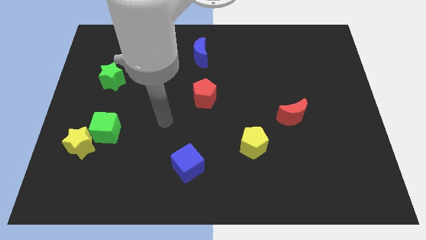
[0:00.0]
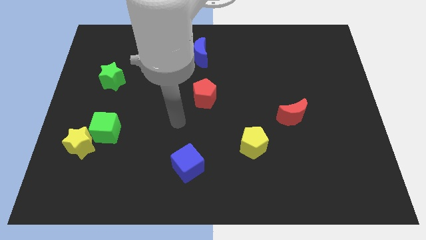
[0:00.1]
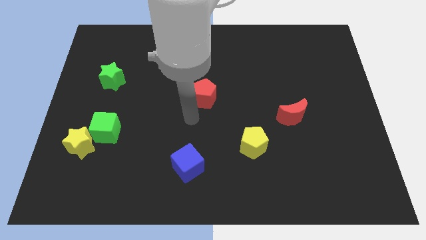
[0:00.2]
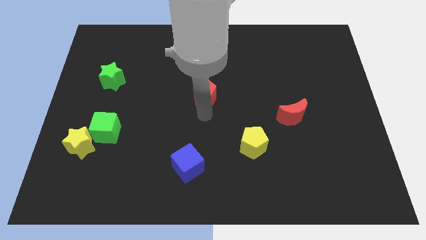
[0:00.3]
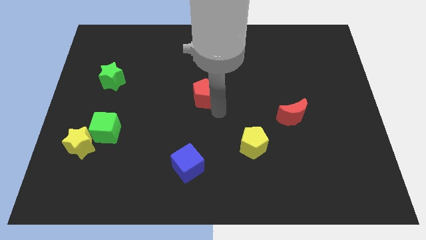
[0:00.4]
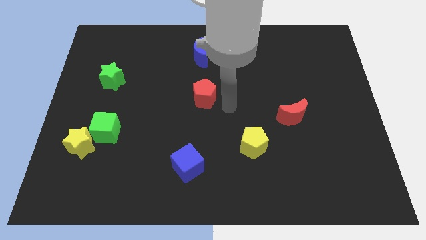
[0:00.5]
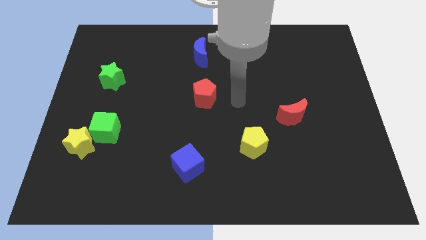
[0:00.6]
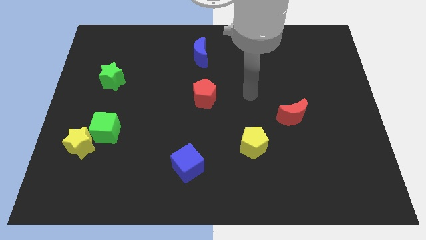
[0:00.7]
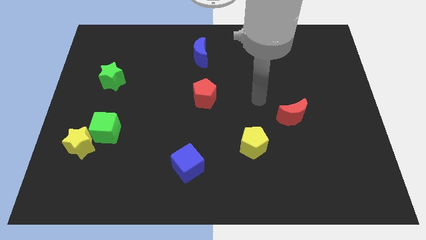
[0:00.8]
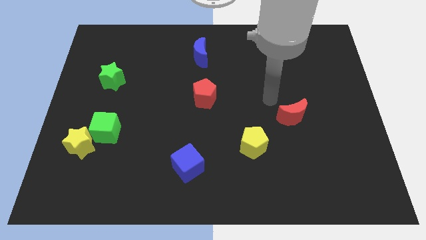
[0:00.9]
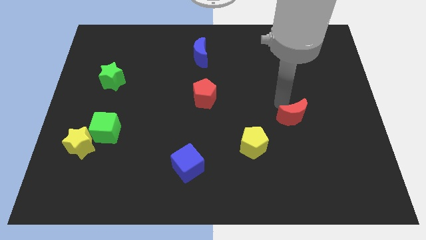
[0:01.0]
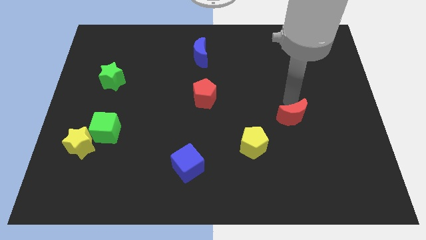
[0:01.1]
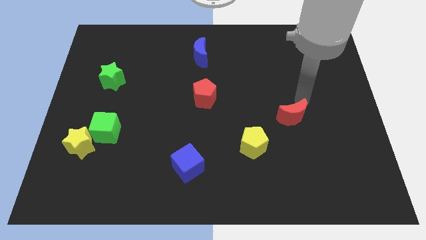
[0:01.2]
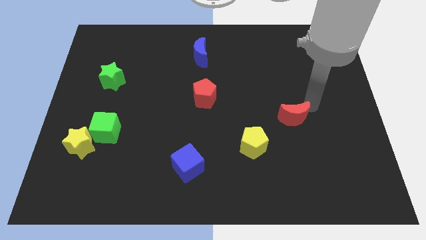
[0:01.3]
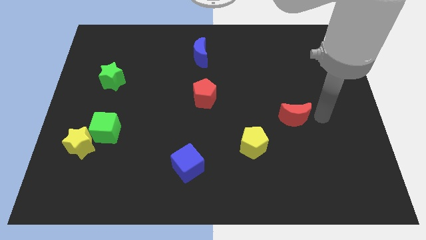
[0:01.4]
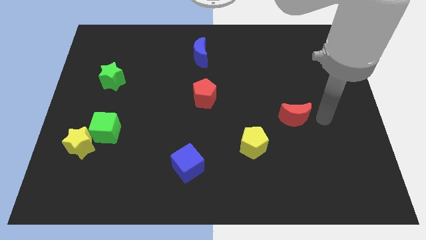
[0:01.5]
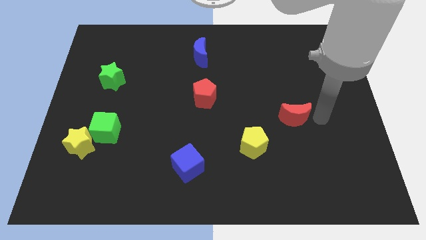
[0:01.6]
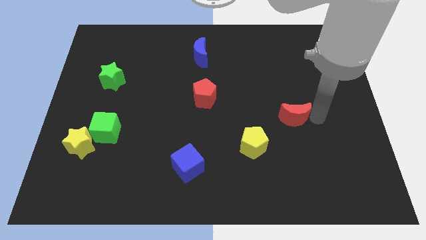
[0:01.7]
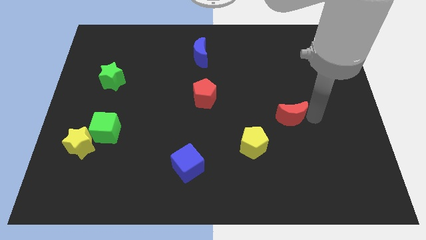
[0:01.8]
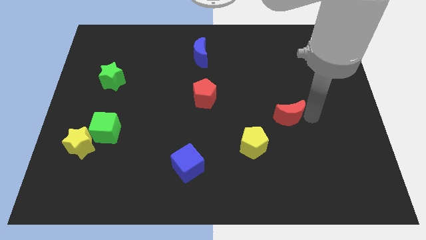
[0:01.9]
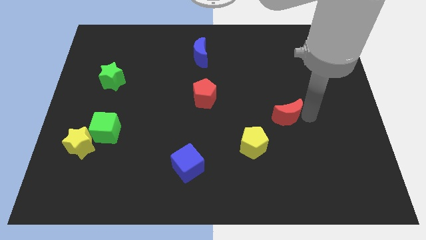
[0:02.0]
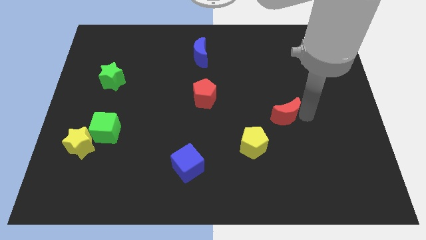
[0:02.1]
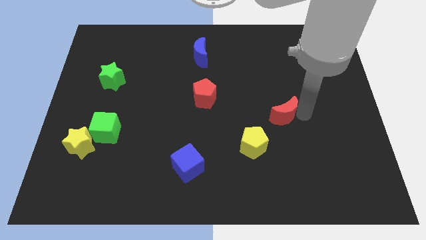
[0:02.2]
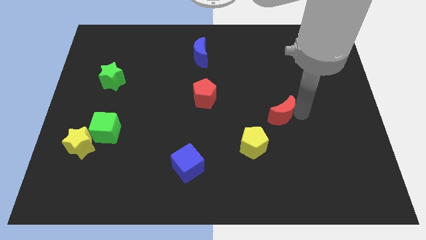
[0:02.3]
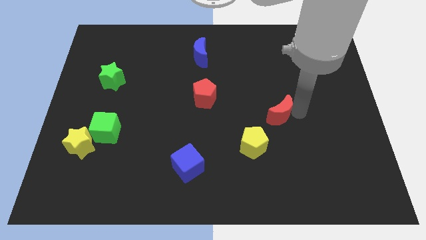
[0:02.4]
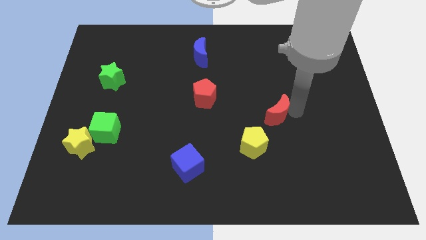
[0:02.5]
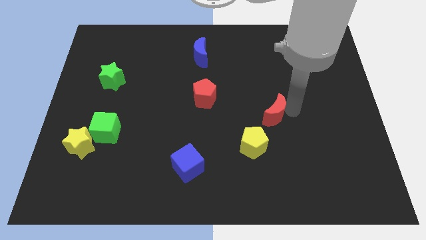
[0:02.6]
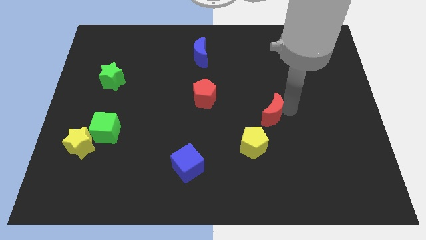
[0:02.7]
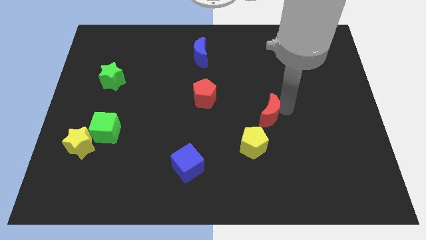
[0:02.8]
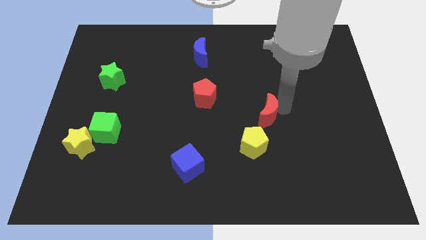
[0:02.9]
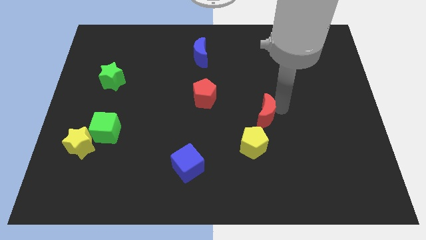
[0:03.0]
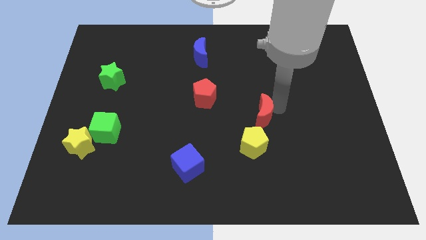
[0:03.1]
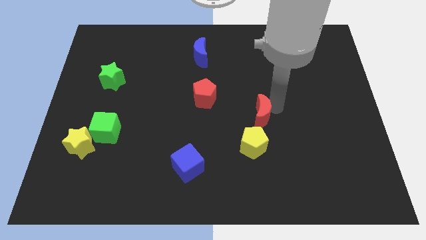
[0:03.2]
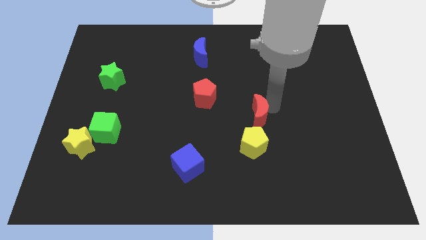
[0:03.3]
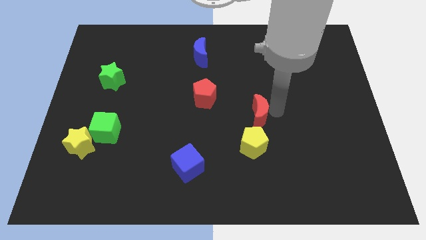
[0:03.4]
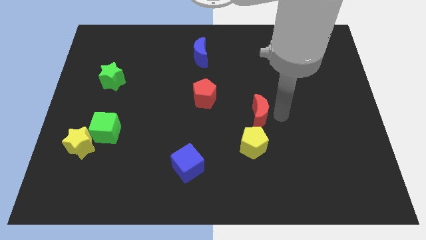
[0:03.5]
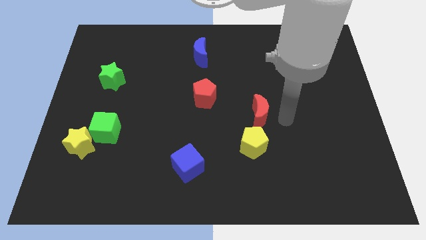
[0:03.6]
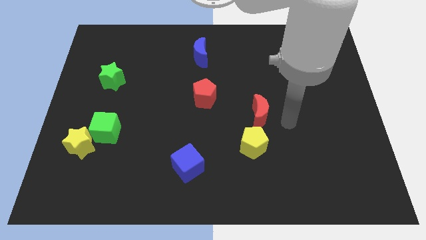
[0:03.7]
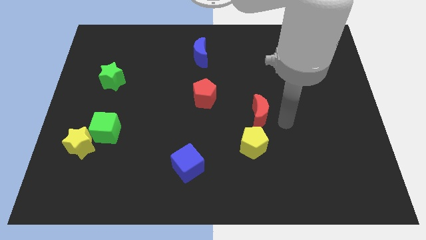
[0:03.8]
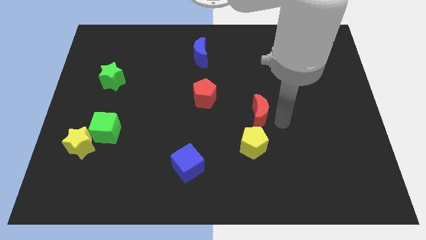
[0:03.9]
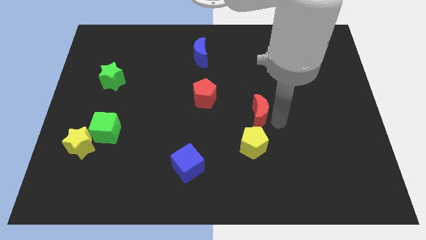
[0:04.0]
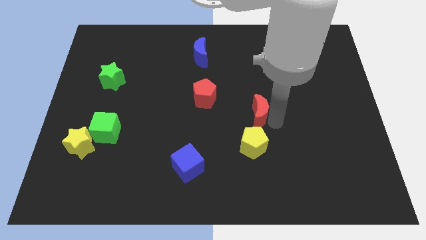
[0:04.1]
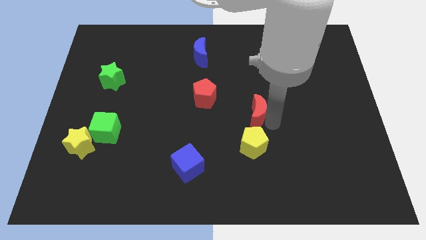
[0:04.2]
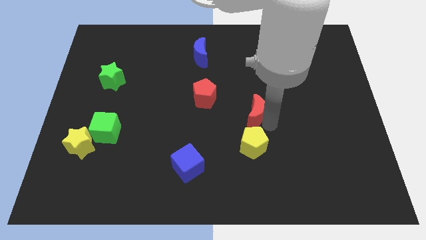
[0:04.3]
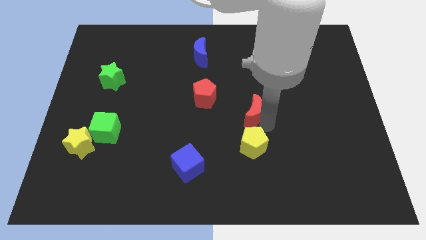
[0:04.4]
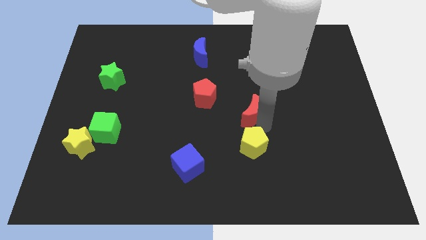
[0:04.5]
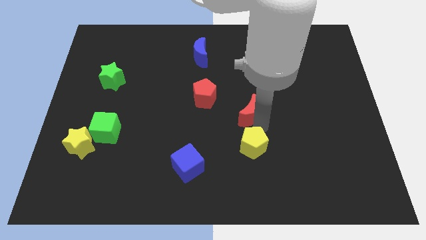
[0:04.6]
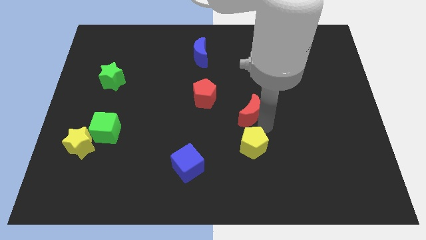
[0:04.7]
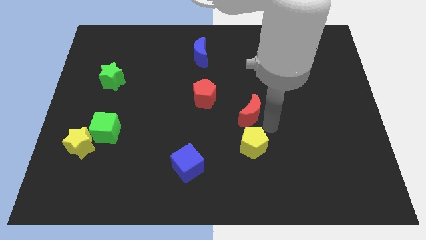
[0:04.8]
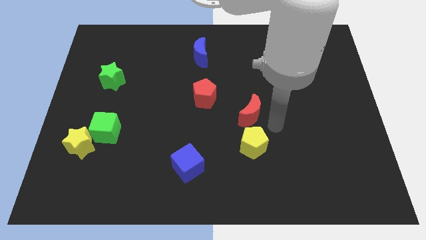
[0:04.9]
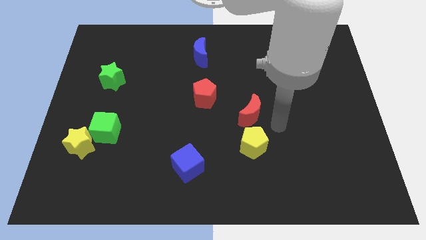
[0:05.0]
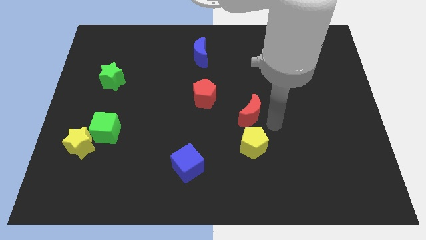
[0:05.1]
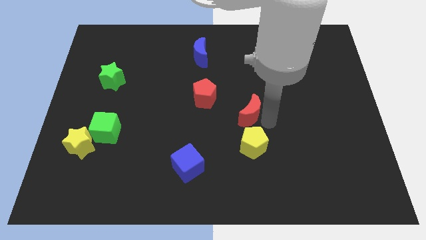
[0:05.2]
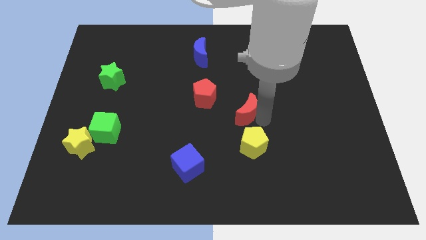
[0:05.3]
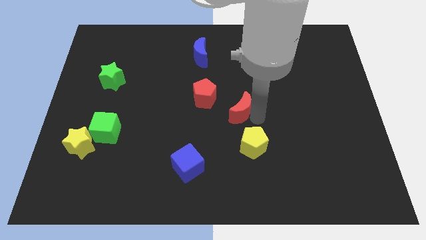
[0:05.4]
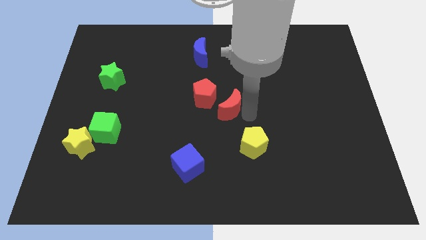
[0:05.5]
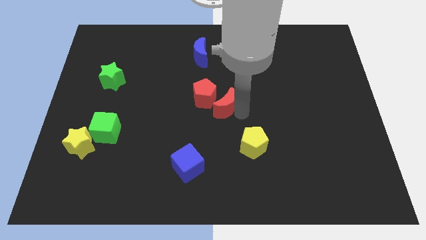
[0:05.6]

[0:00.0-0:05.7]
push the red moon towards the red pentagon

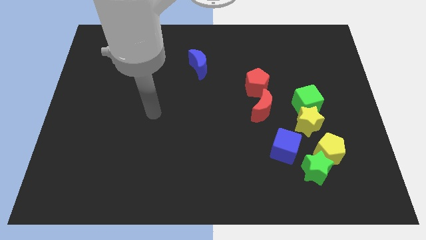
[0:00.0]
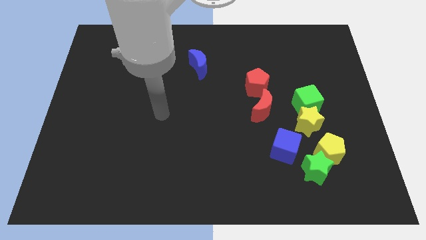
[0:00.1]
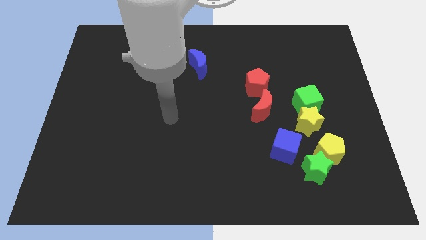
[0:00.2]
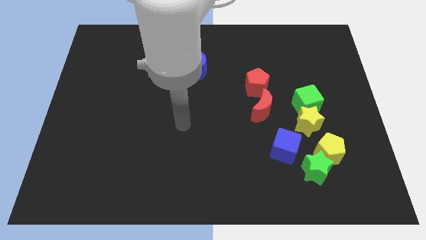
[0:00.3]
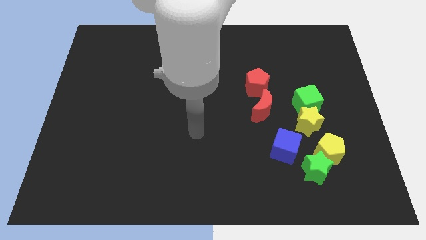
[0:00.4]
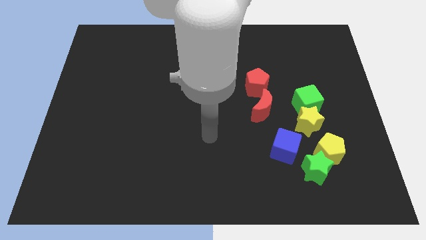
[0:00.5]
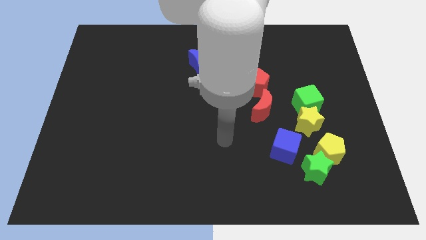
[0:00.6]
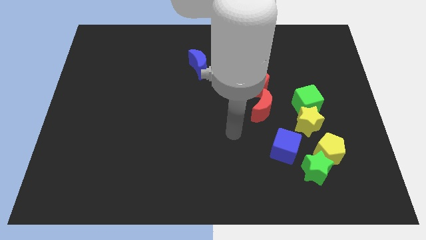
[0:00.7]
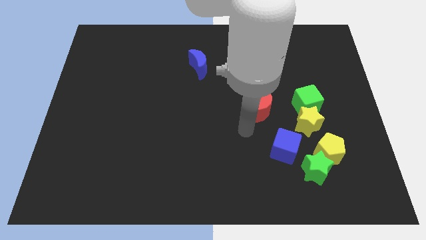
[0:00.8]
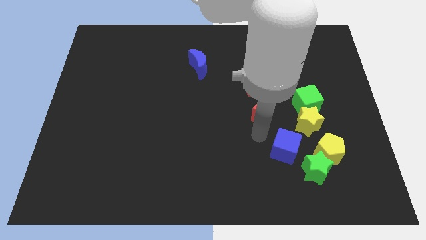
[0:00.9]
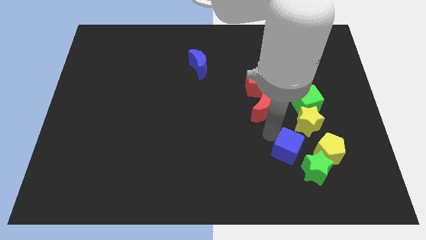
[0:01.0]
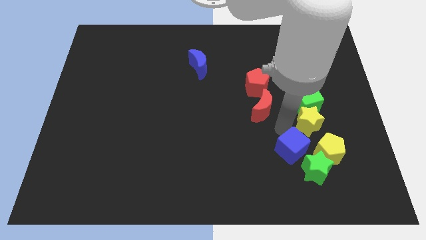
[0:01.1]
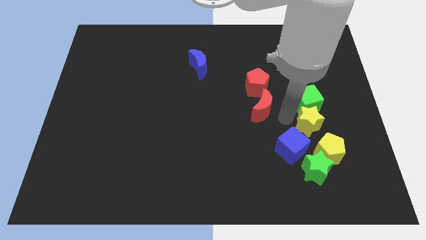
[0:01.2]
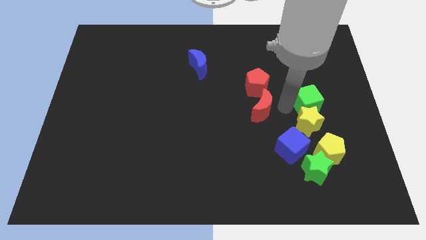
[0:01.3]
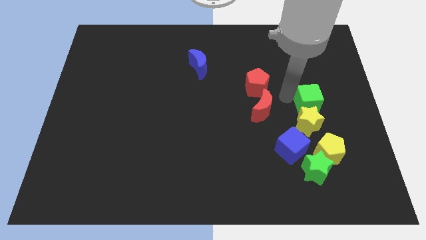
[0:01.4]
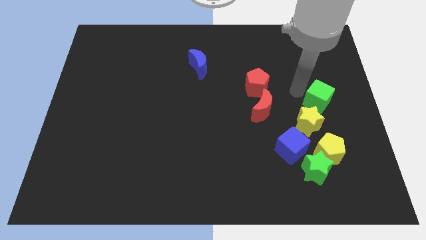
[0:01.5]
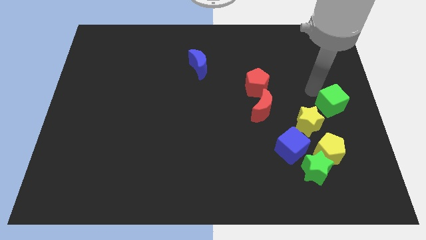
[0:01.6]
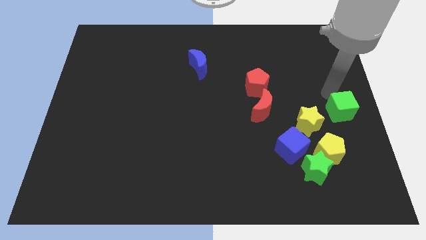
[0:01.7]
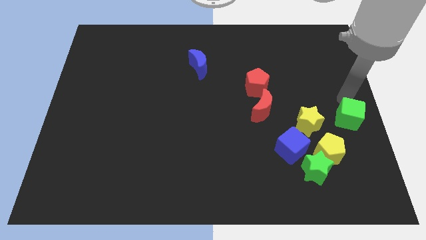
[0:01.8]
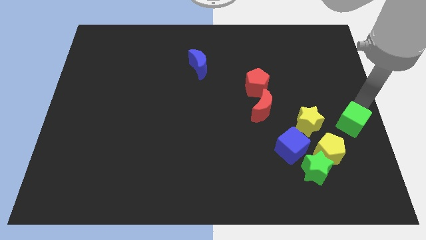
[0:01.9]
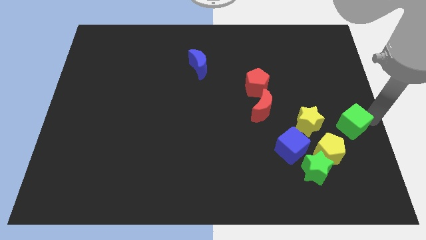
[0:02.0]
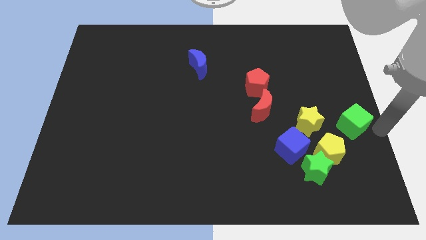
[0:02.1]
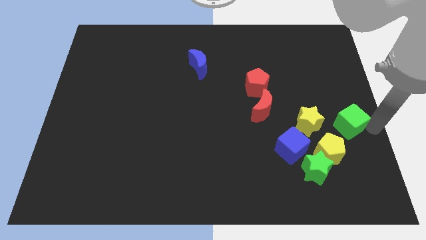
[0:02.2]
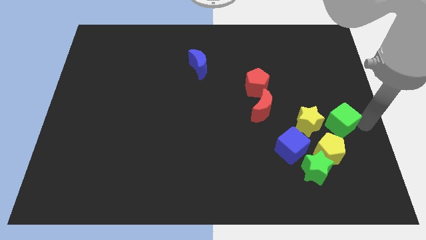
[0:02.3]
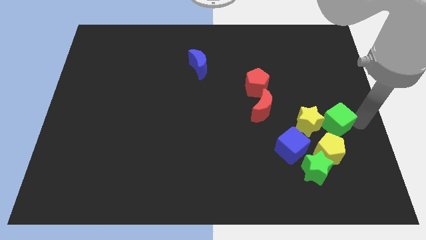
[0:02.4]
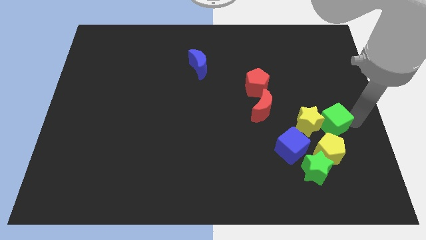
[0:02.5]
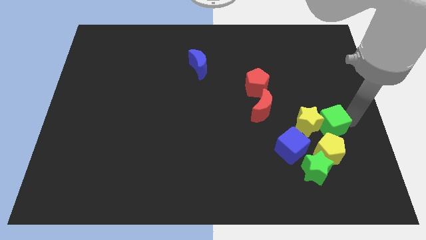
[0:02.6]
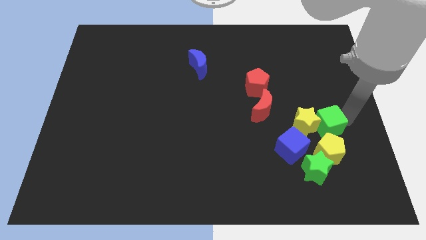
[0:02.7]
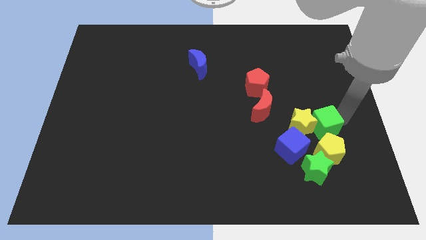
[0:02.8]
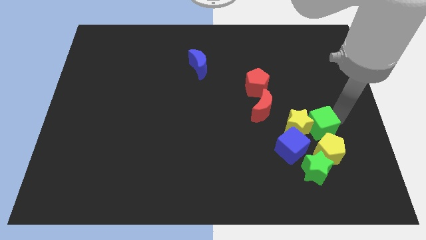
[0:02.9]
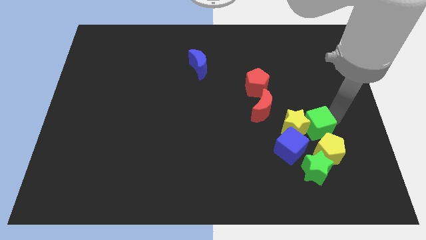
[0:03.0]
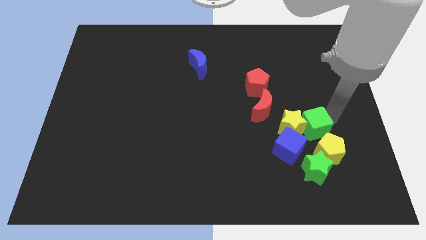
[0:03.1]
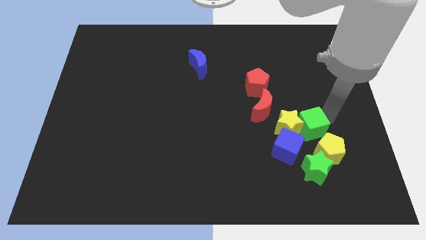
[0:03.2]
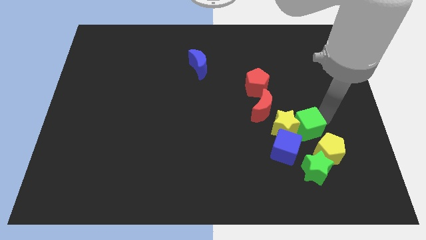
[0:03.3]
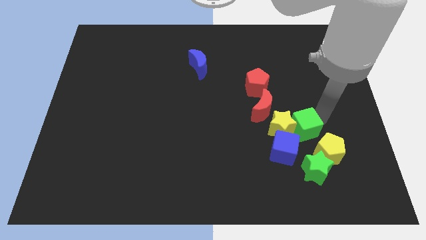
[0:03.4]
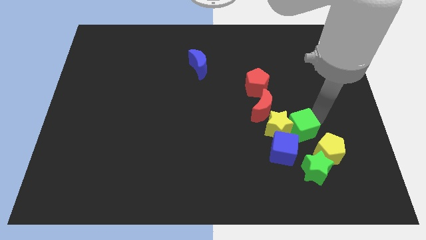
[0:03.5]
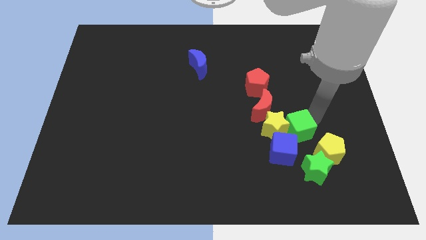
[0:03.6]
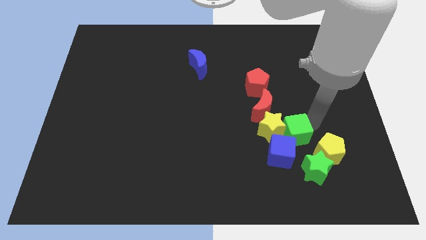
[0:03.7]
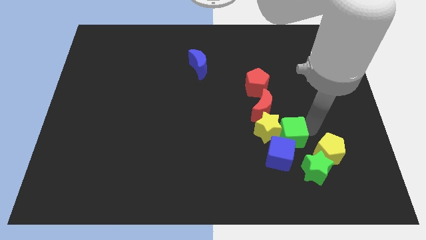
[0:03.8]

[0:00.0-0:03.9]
push the green cube to the blue cube
